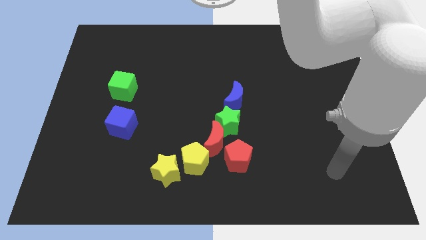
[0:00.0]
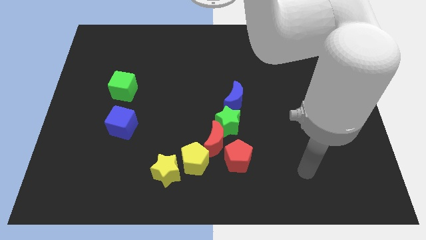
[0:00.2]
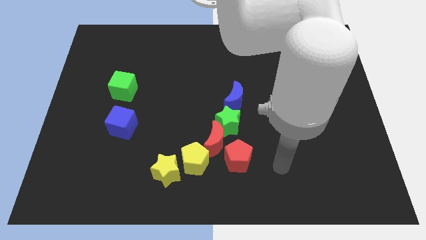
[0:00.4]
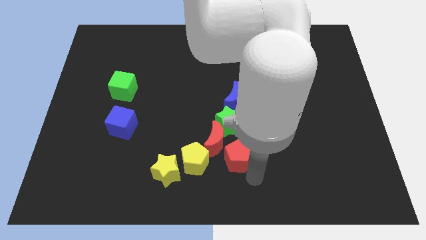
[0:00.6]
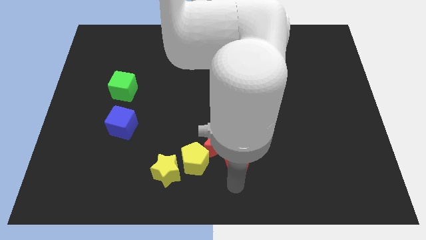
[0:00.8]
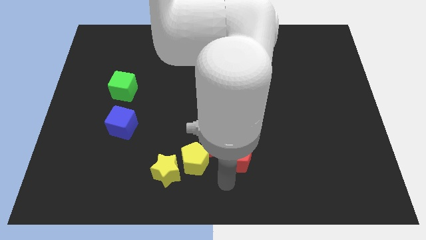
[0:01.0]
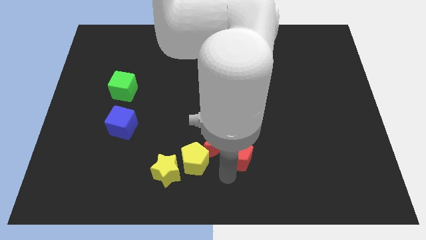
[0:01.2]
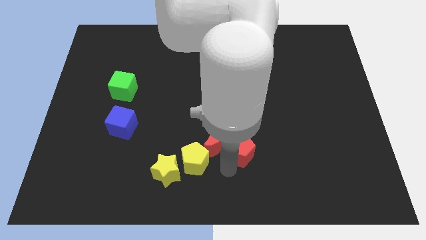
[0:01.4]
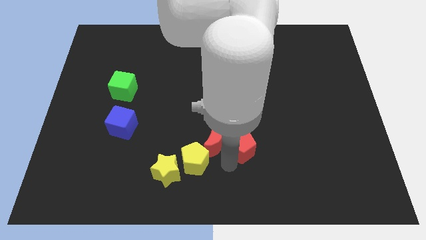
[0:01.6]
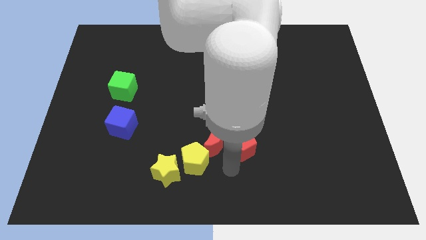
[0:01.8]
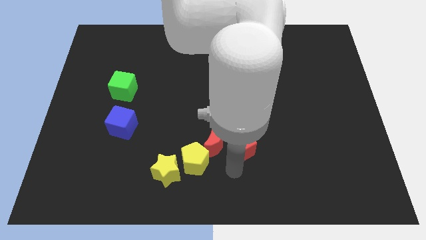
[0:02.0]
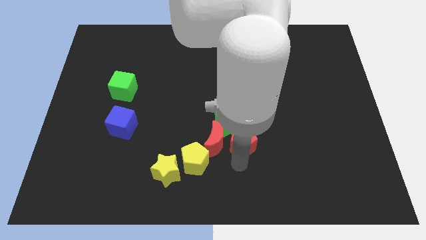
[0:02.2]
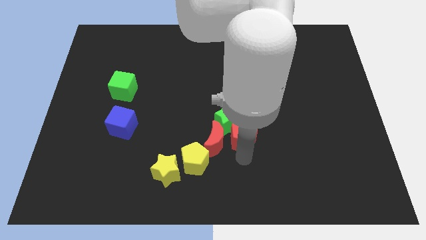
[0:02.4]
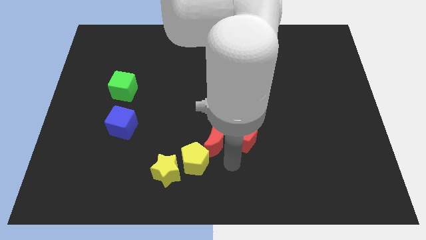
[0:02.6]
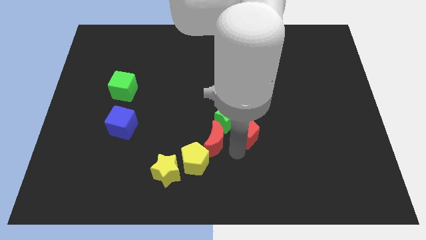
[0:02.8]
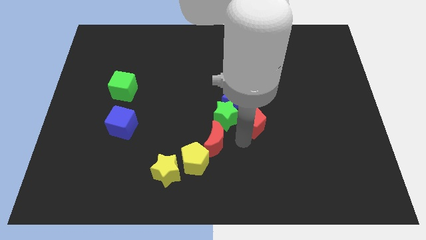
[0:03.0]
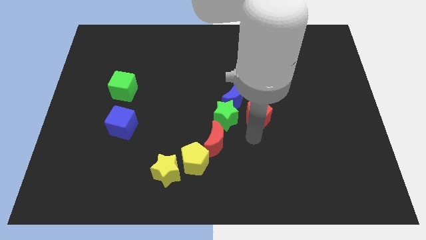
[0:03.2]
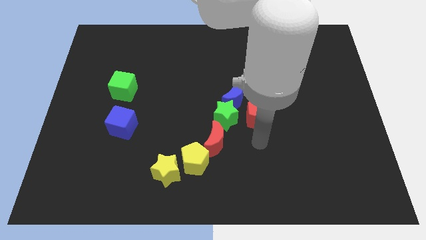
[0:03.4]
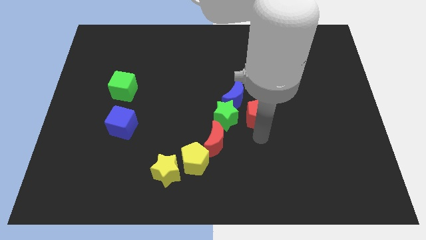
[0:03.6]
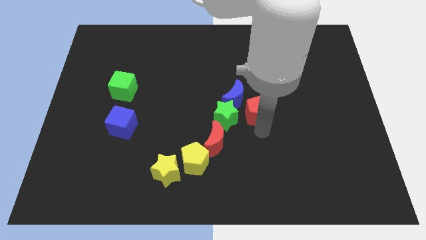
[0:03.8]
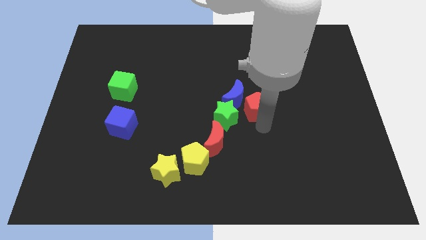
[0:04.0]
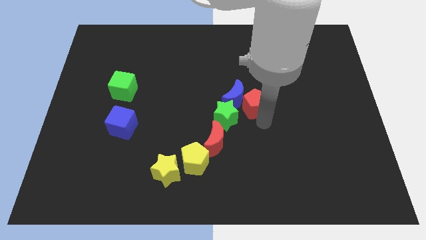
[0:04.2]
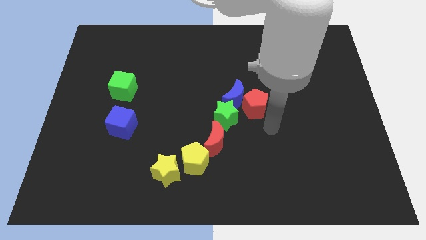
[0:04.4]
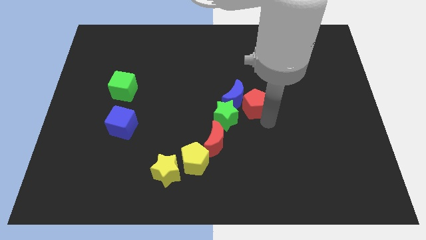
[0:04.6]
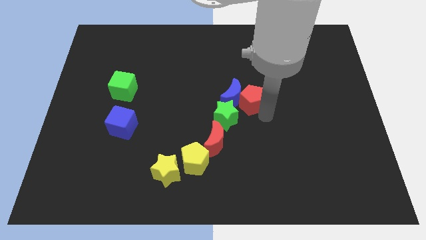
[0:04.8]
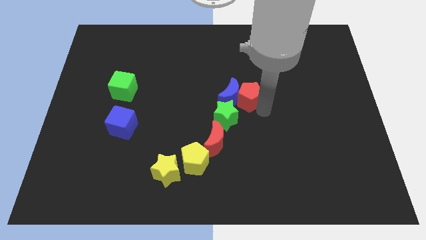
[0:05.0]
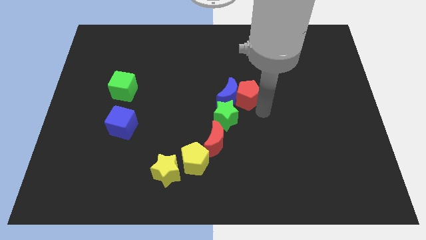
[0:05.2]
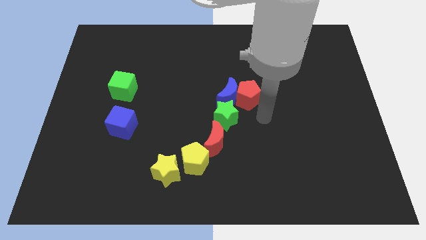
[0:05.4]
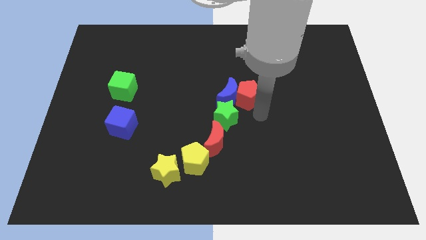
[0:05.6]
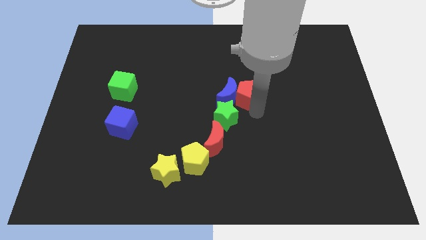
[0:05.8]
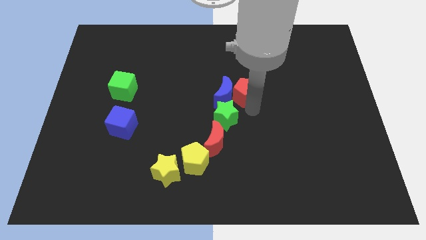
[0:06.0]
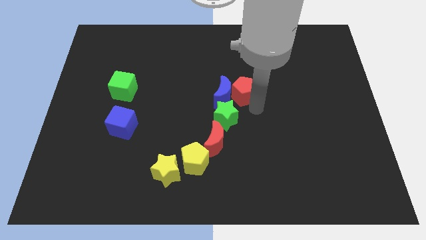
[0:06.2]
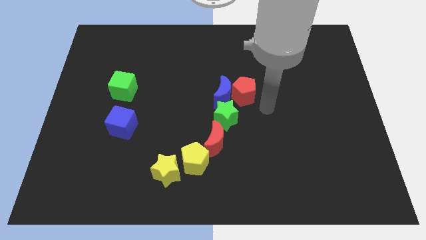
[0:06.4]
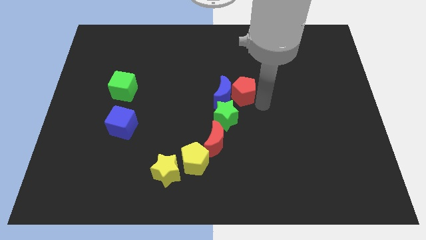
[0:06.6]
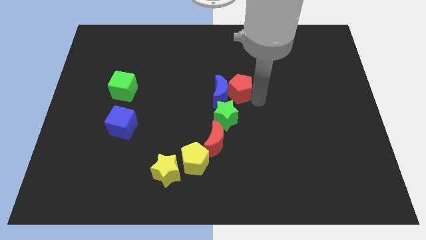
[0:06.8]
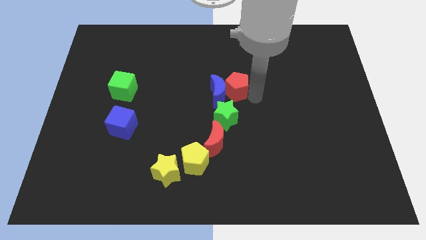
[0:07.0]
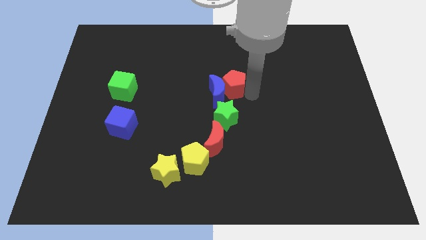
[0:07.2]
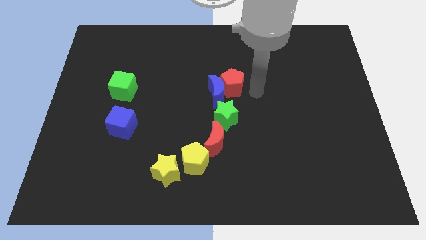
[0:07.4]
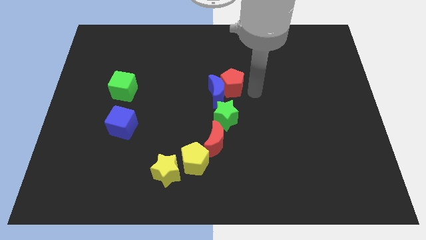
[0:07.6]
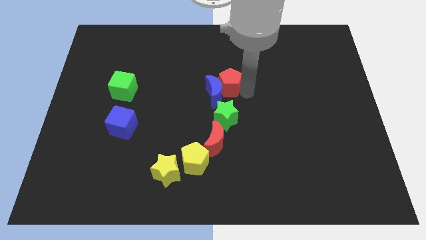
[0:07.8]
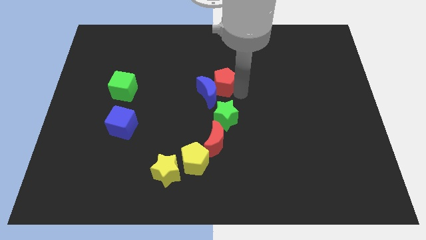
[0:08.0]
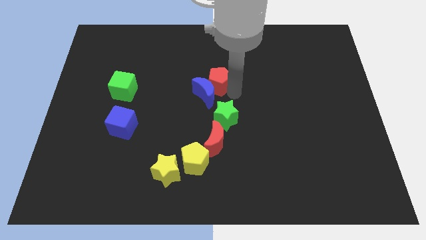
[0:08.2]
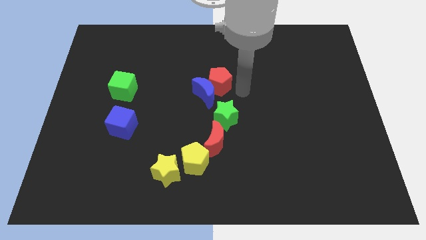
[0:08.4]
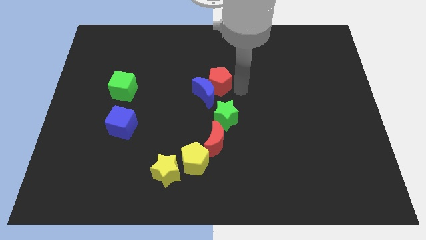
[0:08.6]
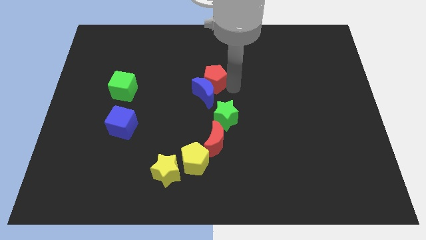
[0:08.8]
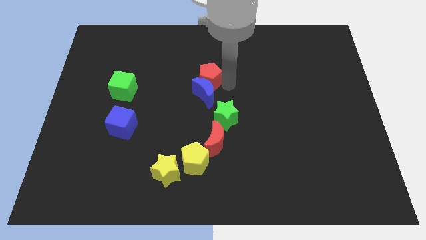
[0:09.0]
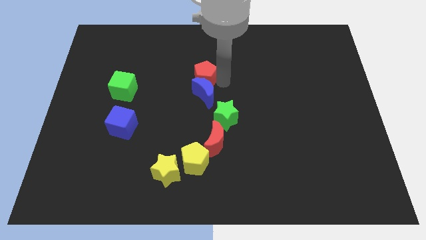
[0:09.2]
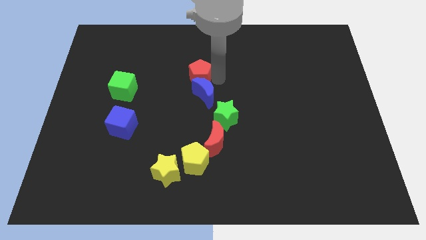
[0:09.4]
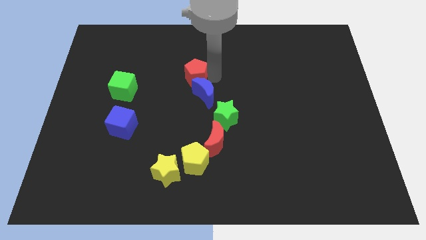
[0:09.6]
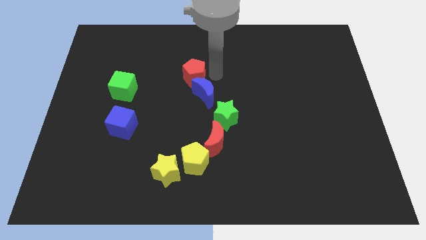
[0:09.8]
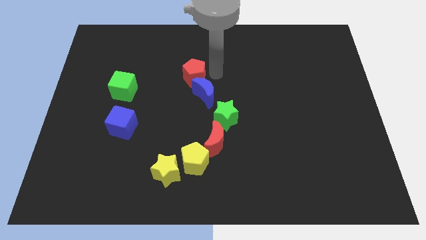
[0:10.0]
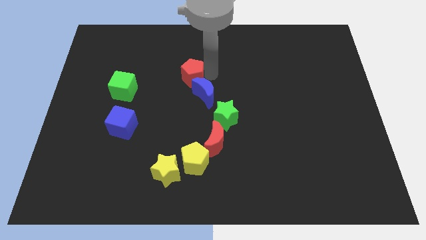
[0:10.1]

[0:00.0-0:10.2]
push the red pentagon up and left diagonally

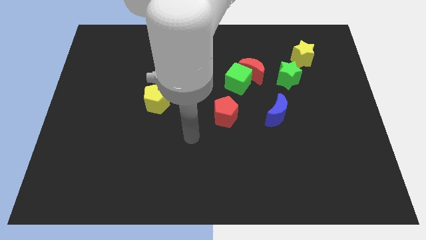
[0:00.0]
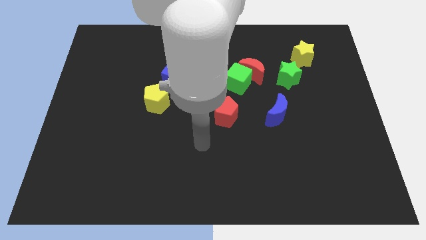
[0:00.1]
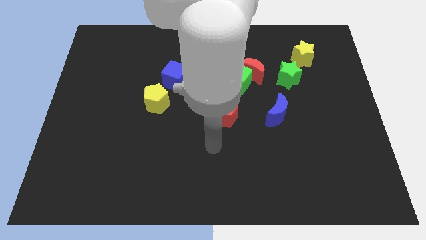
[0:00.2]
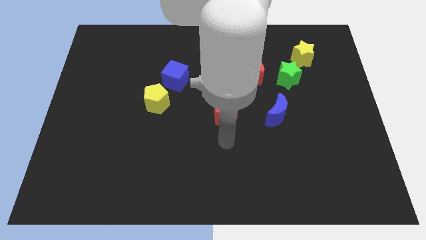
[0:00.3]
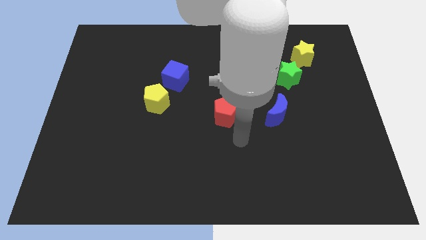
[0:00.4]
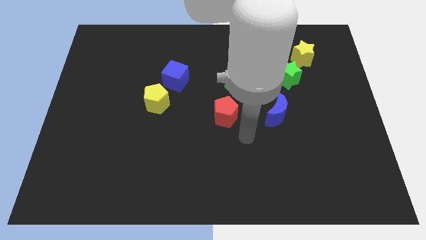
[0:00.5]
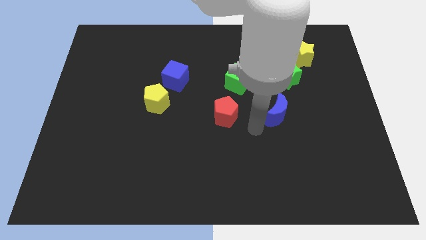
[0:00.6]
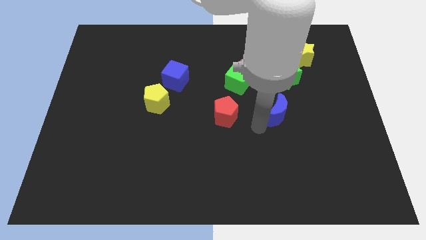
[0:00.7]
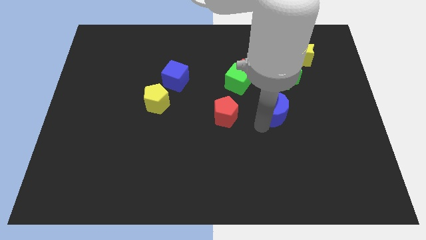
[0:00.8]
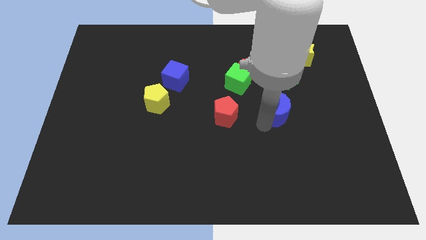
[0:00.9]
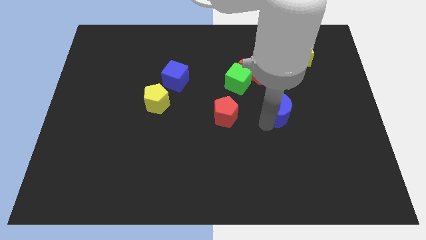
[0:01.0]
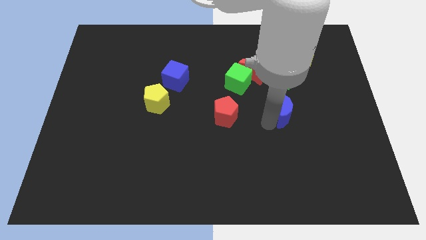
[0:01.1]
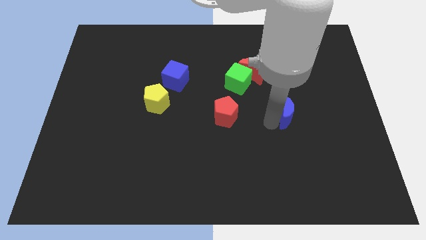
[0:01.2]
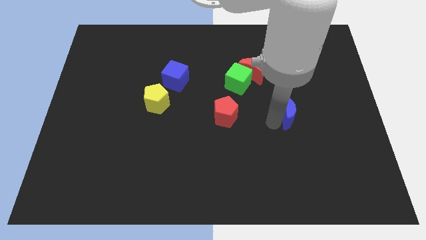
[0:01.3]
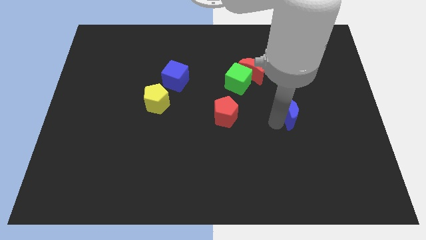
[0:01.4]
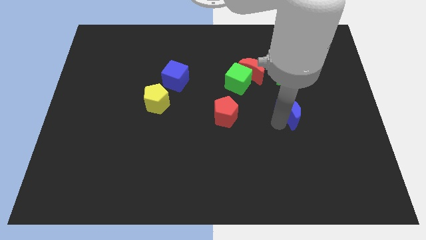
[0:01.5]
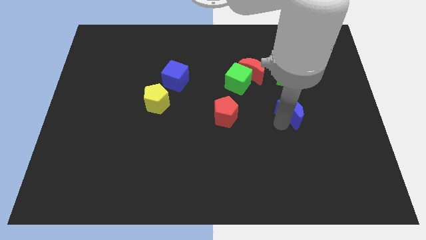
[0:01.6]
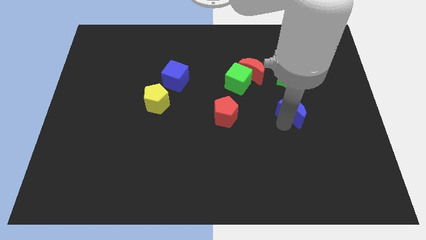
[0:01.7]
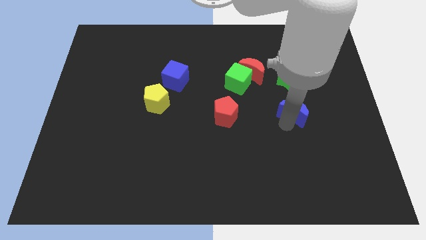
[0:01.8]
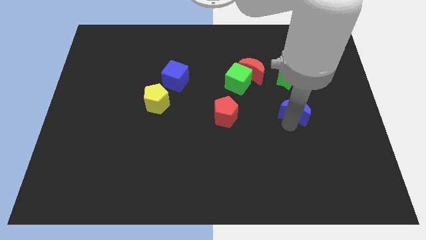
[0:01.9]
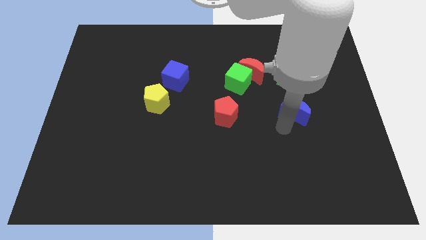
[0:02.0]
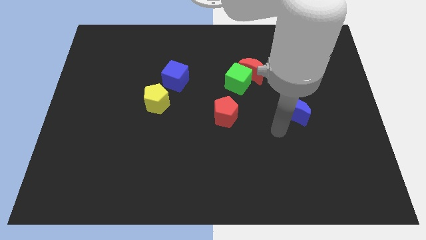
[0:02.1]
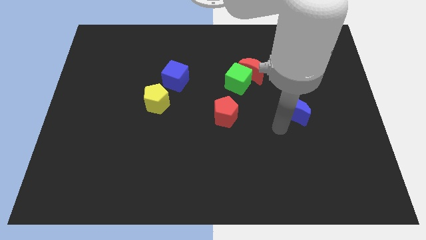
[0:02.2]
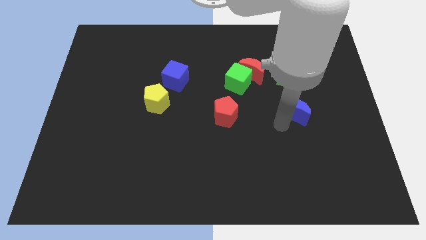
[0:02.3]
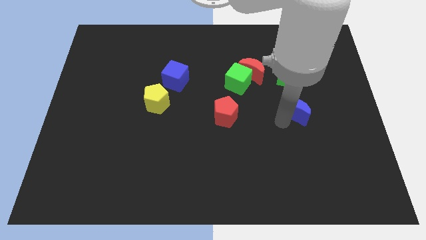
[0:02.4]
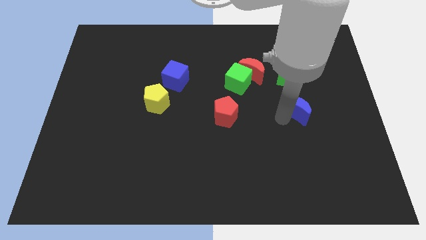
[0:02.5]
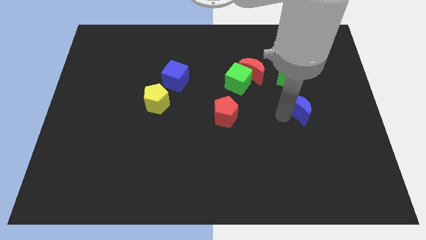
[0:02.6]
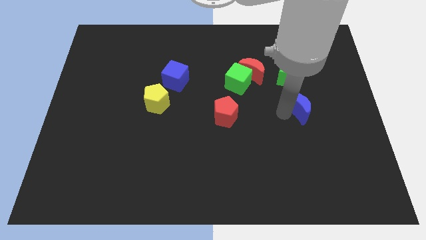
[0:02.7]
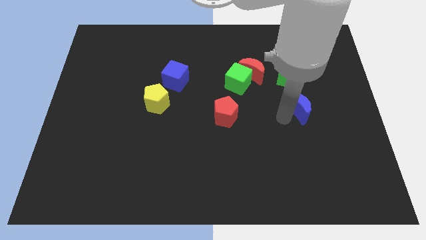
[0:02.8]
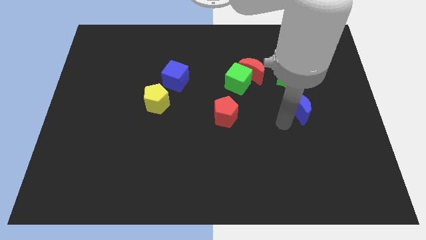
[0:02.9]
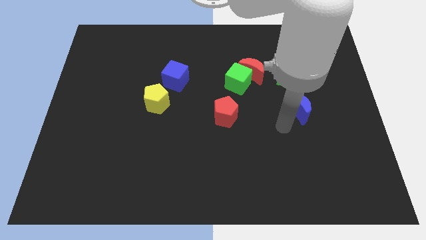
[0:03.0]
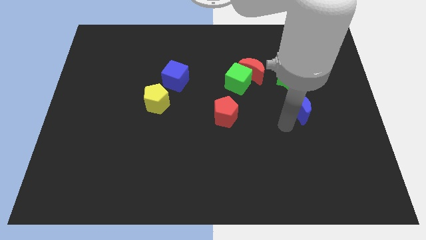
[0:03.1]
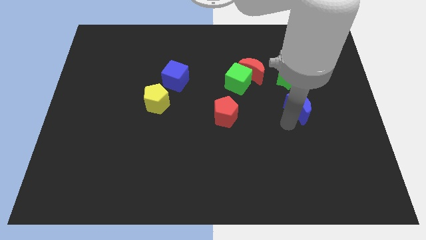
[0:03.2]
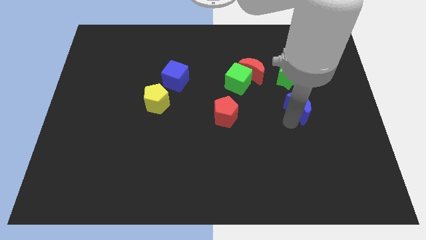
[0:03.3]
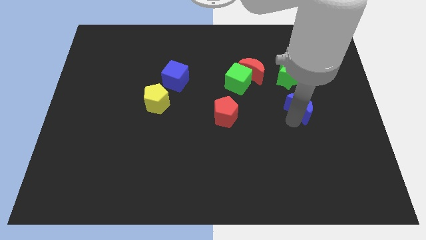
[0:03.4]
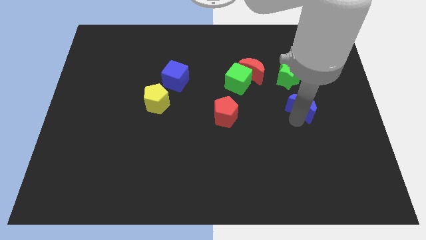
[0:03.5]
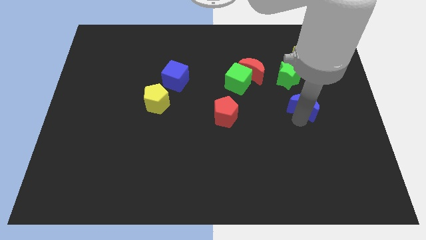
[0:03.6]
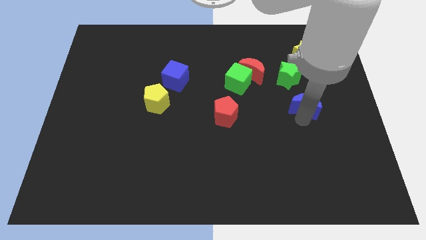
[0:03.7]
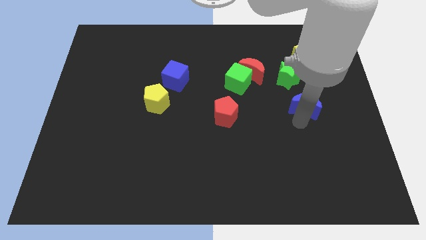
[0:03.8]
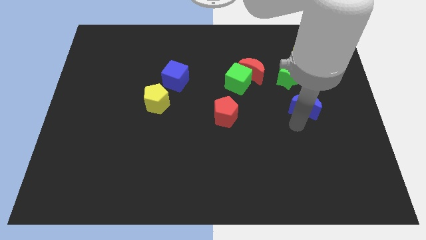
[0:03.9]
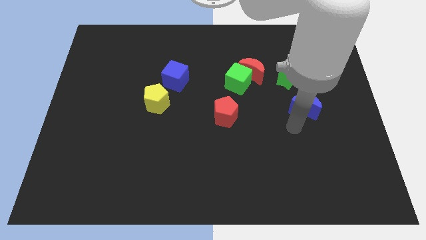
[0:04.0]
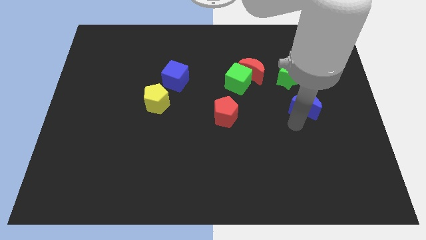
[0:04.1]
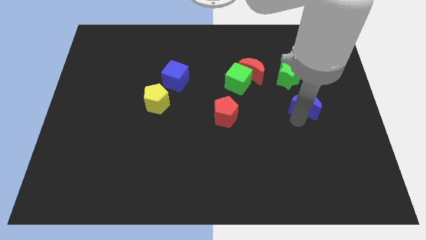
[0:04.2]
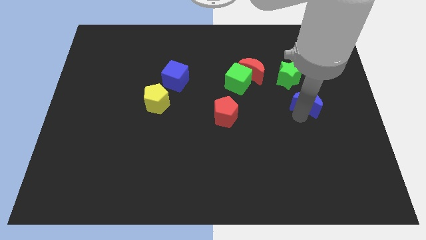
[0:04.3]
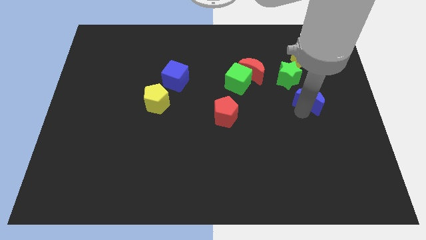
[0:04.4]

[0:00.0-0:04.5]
push the blue moon a little bit up and to the right diagonally
